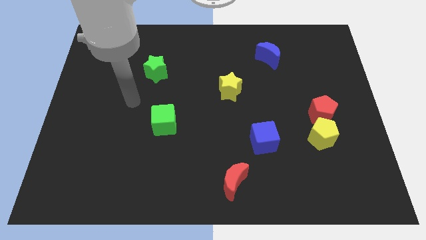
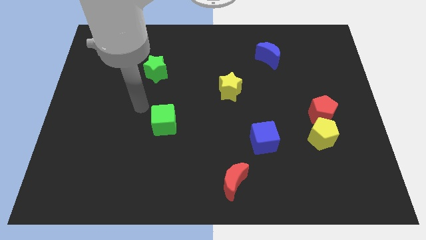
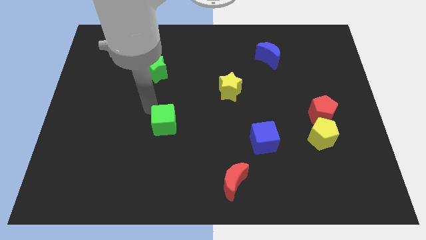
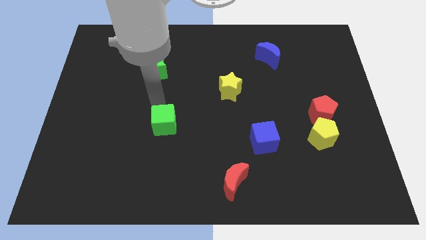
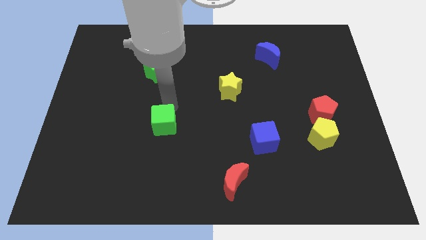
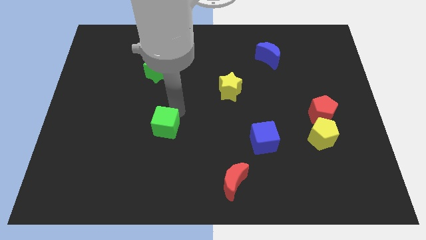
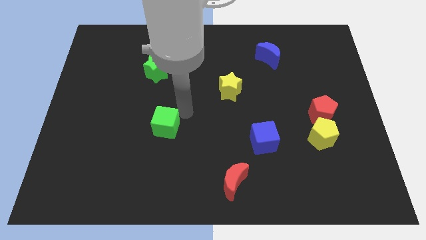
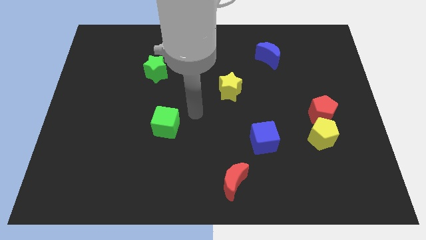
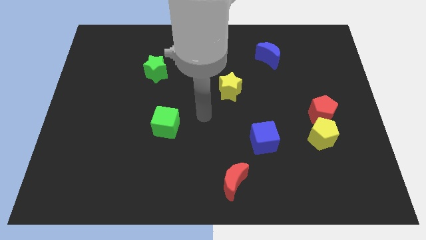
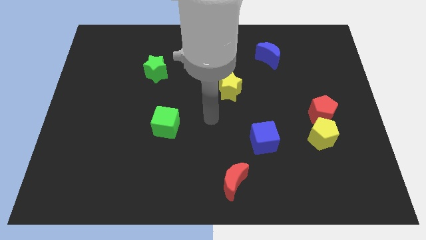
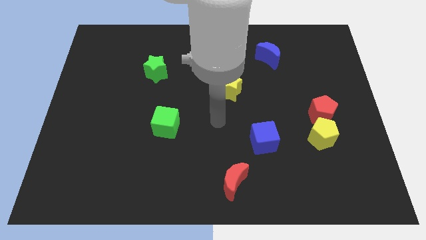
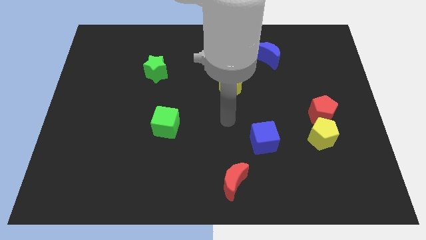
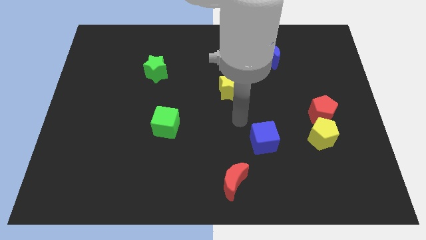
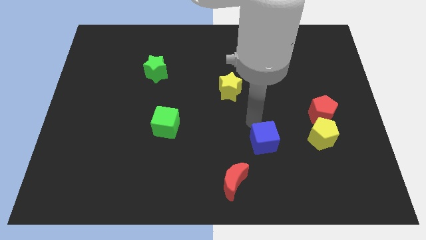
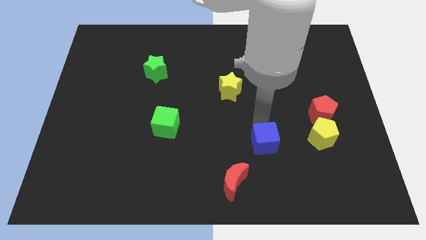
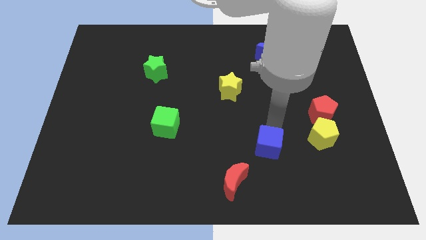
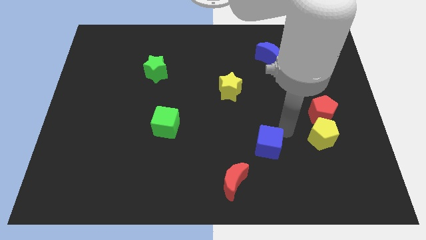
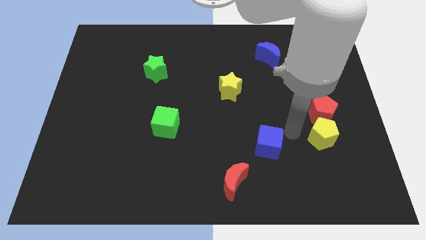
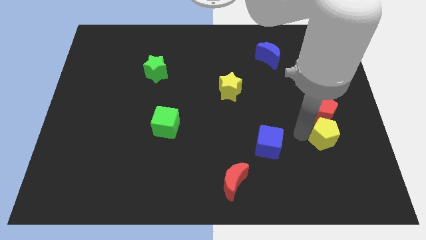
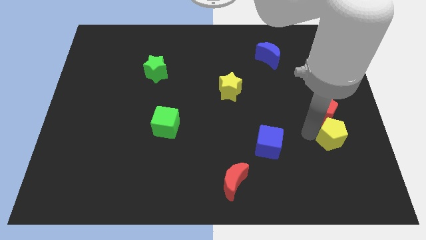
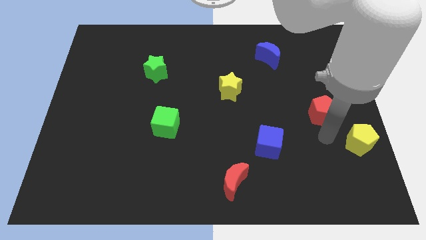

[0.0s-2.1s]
move the red pentagon away from the yellow pentagon

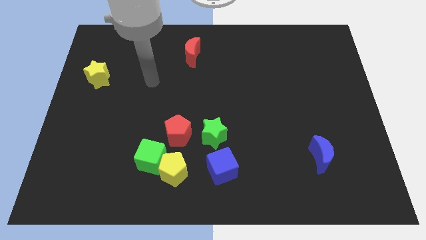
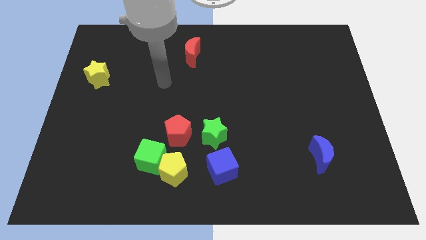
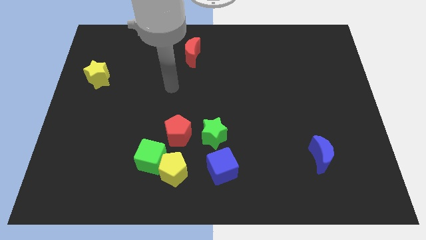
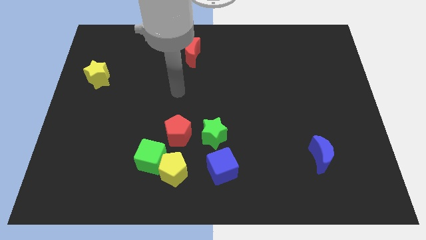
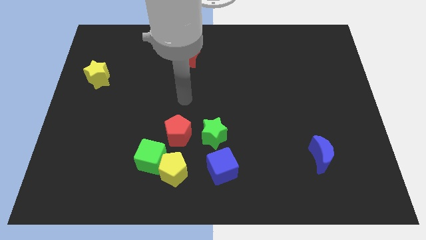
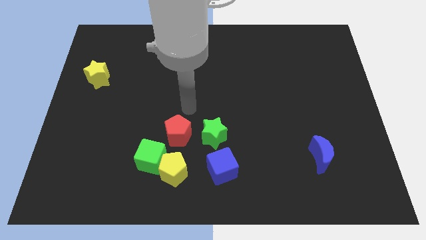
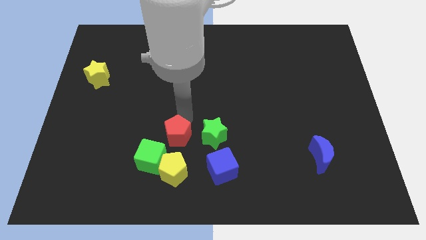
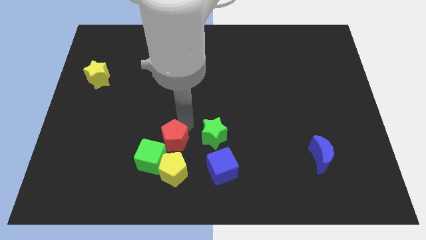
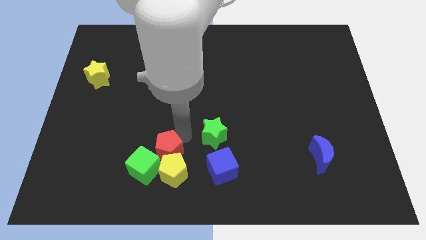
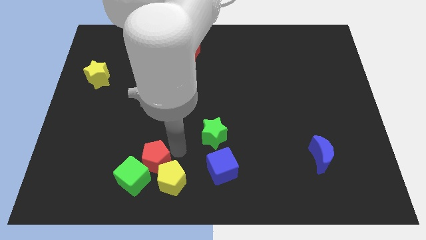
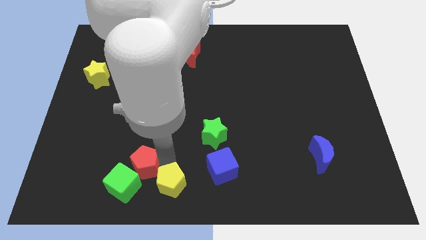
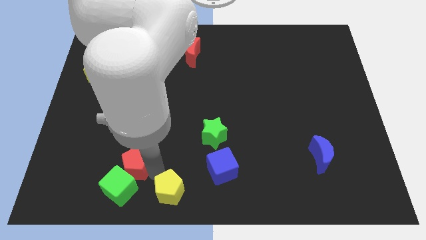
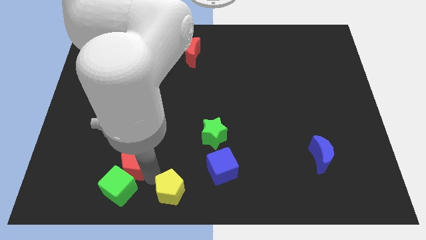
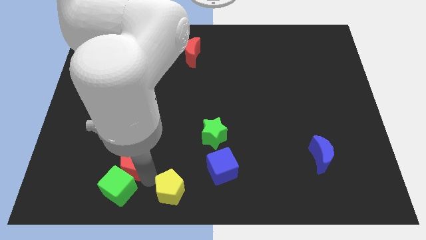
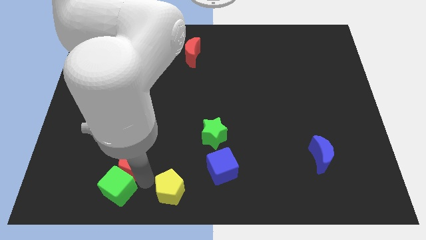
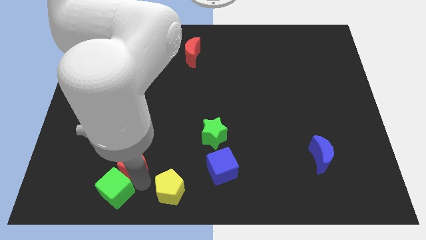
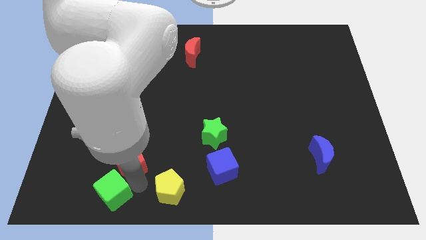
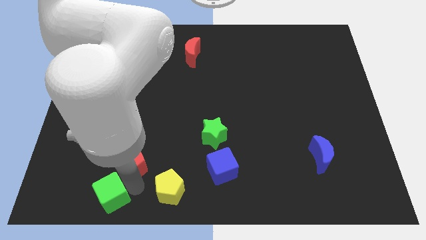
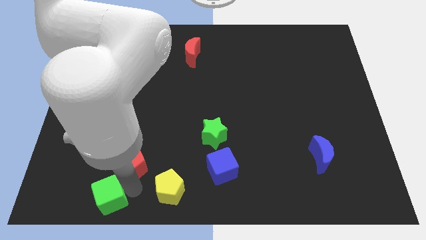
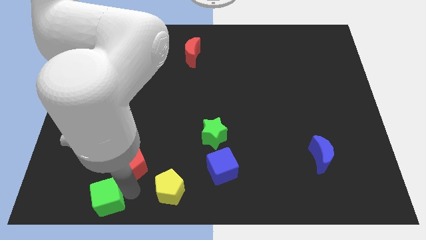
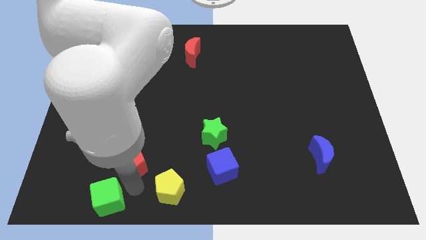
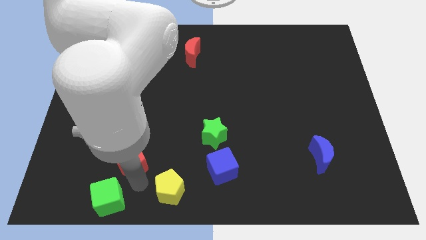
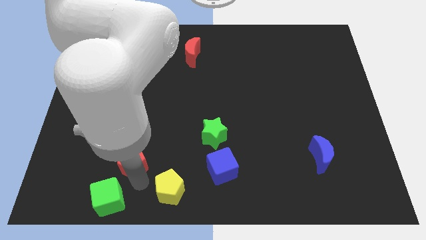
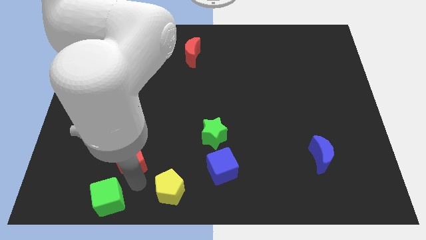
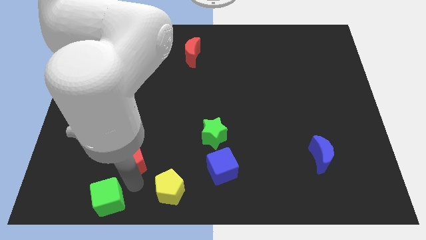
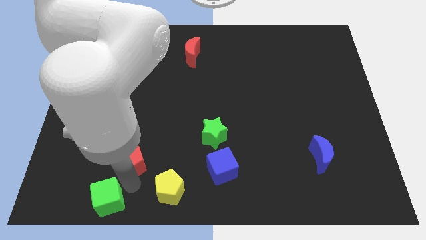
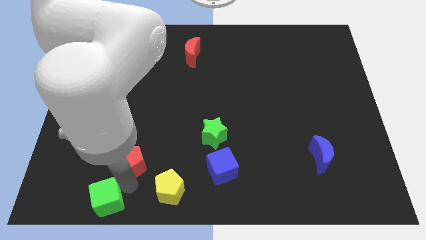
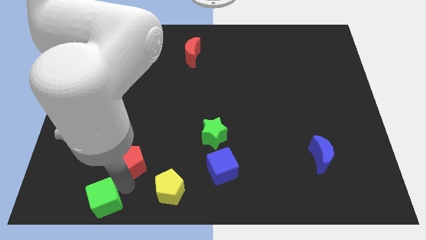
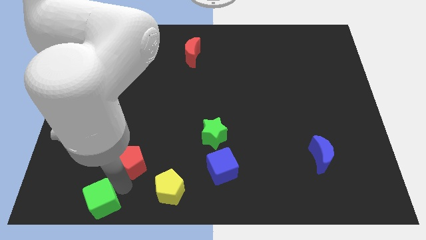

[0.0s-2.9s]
separate the green cube from the yellow pentagon and red pentagon

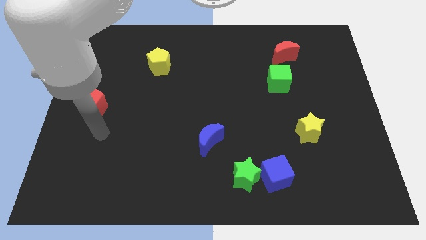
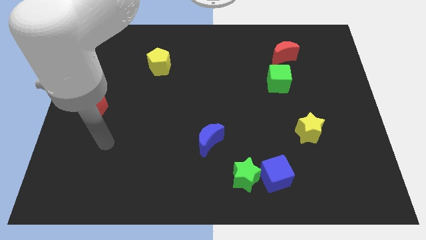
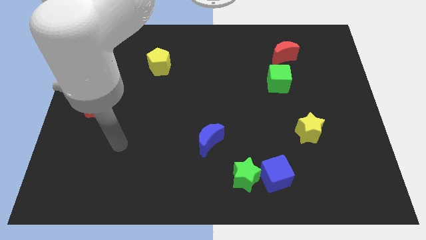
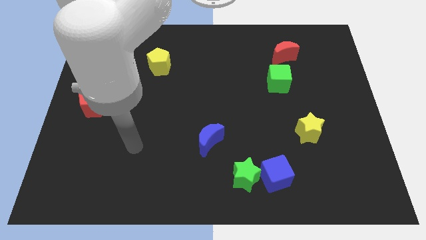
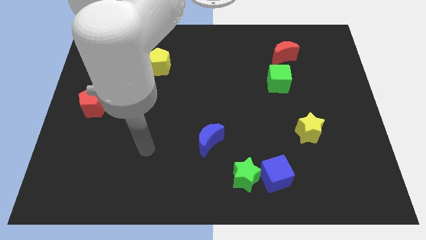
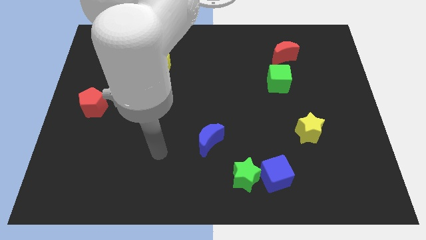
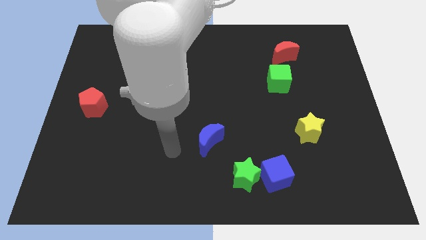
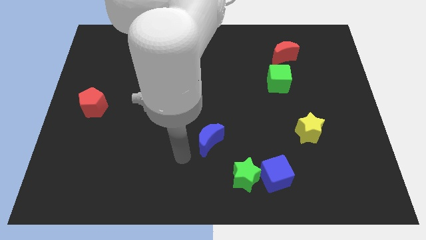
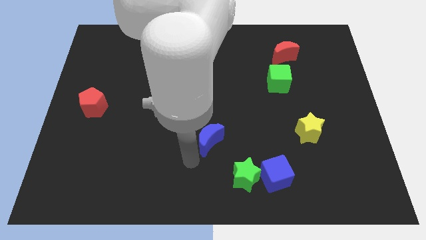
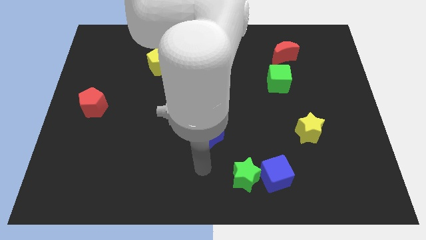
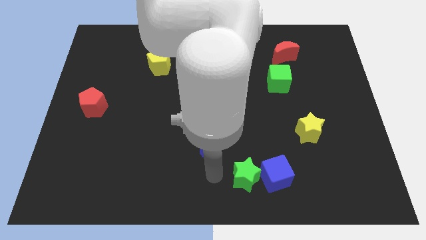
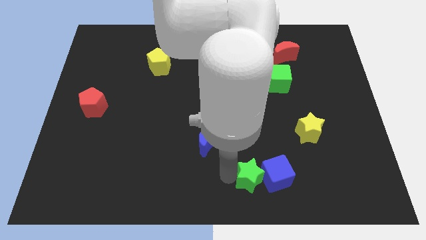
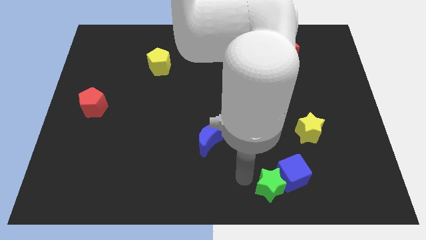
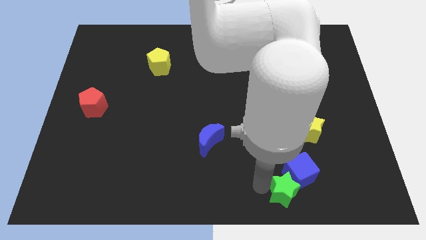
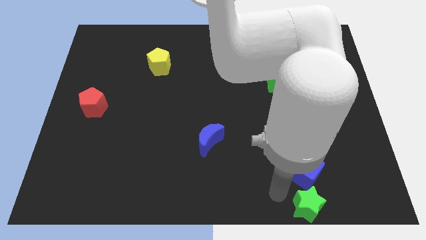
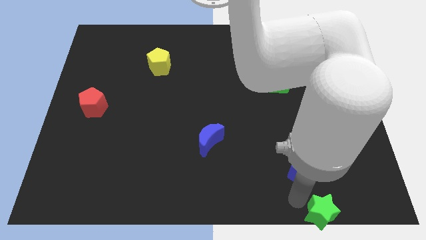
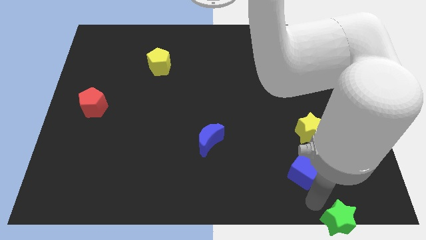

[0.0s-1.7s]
move the blue cube away from the green star

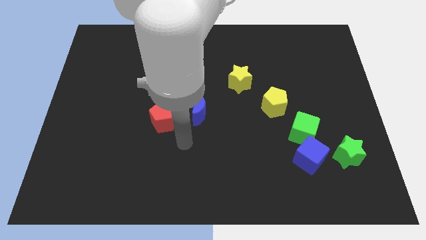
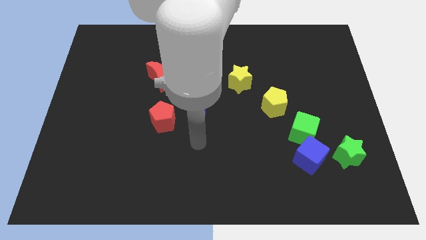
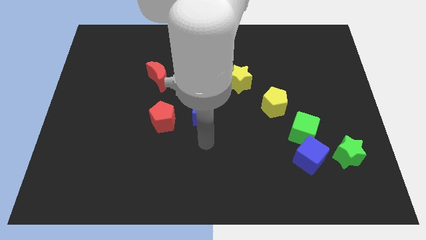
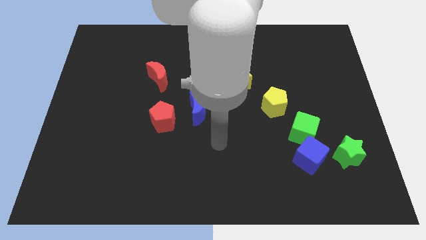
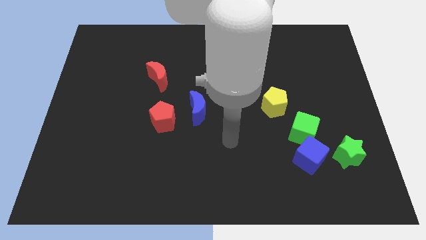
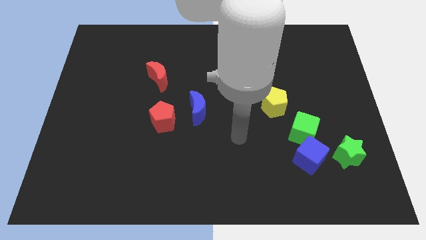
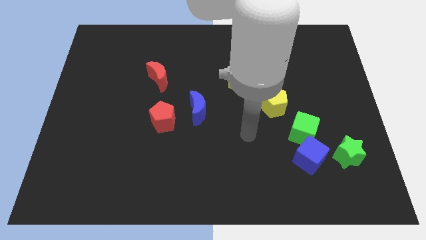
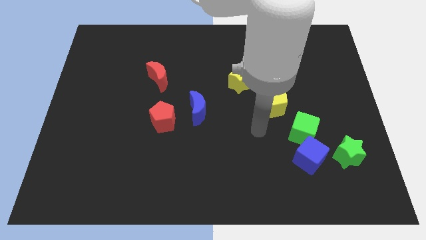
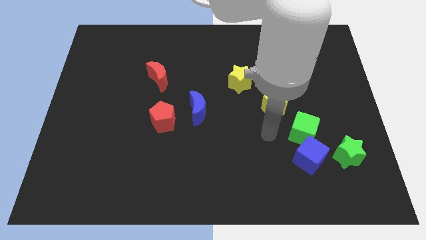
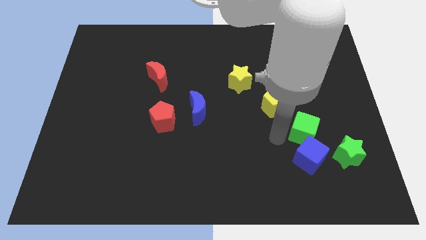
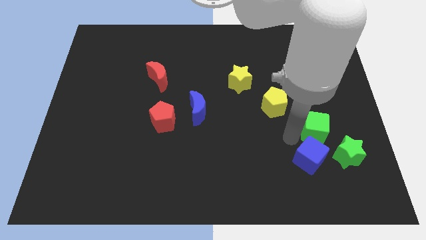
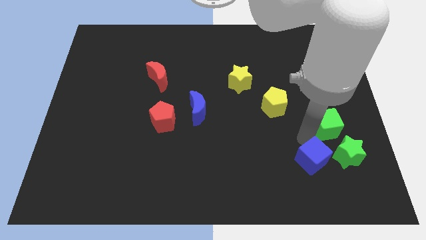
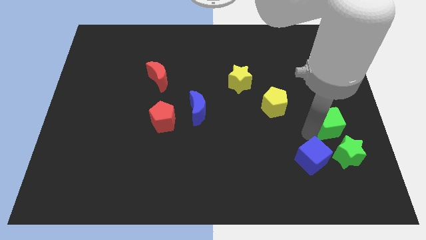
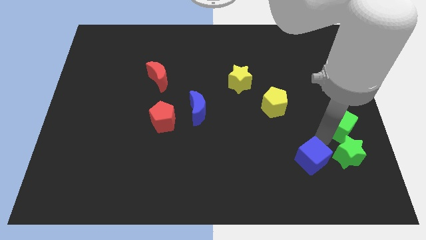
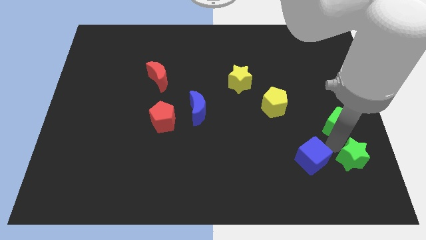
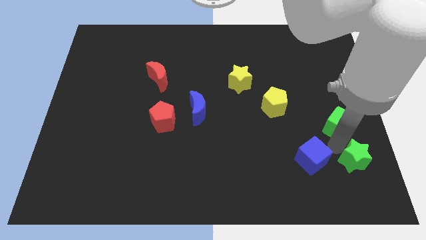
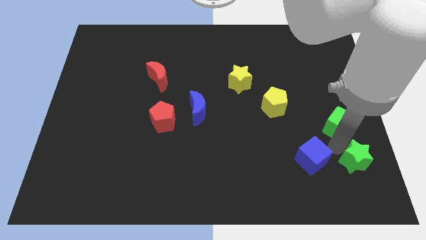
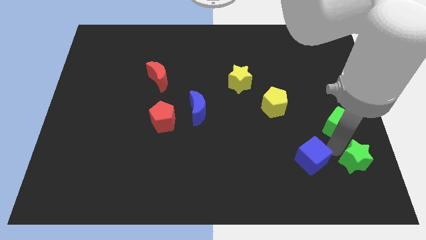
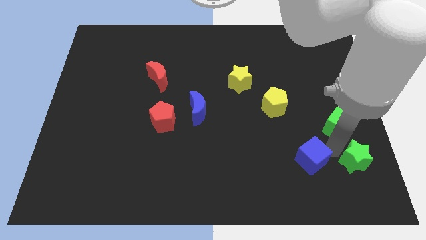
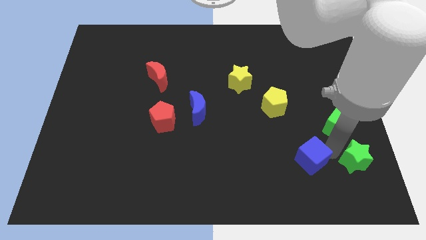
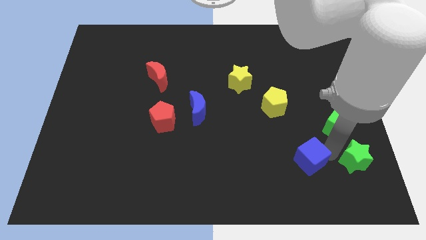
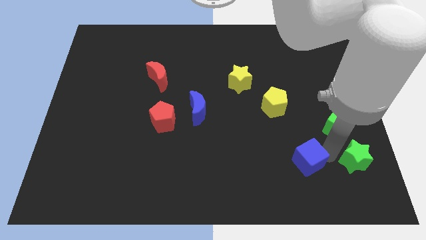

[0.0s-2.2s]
move the blue cube away from the green cube and green star

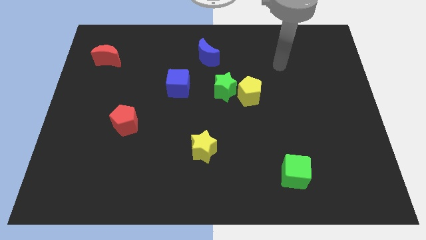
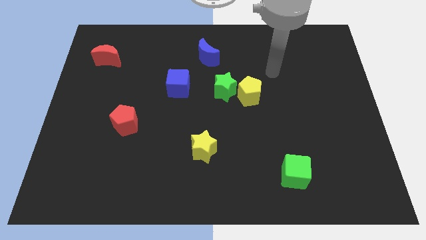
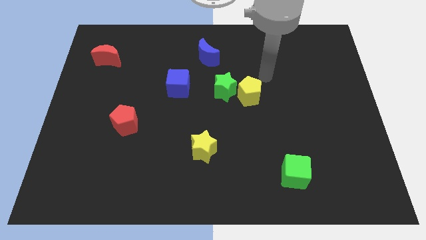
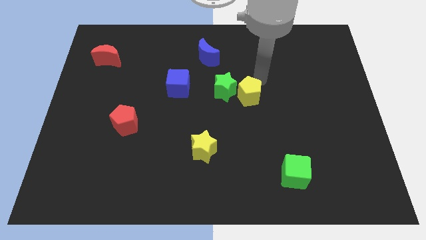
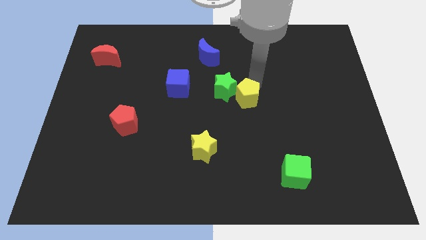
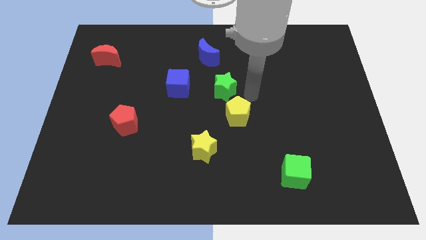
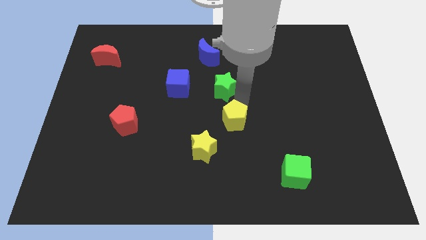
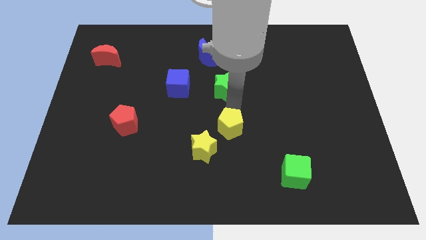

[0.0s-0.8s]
separate the green star from the yellow pentagon
